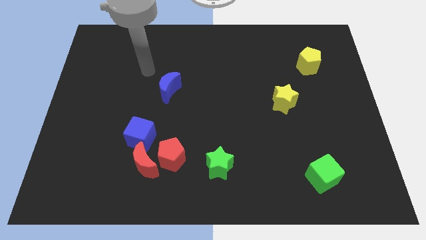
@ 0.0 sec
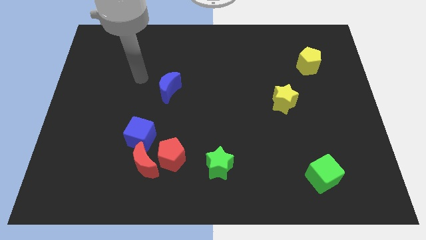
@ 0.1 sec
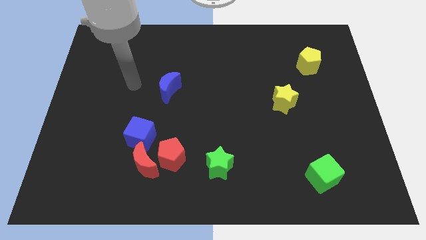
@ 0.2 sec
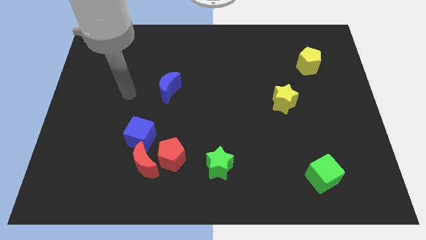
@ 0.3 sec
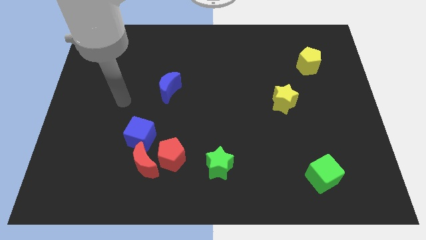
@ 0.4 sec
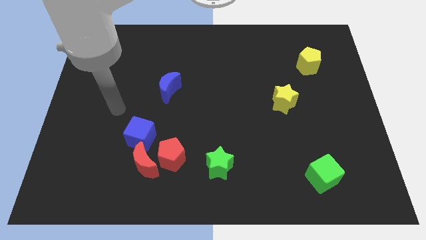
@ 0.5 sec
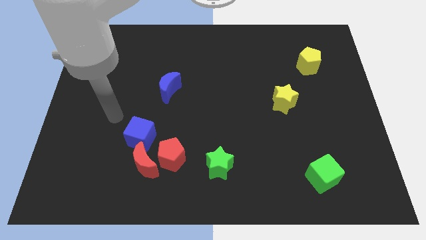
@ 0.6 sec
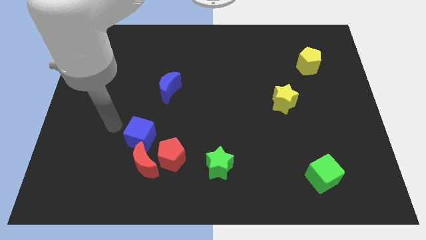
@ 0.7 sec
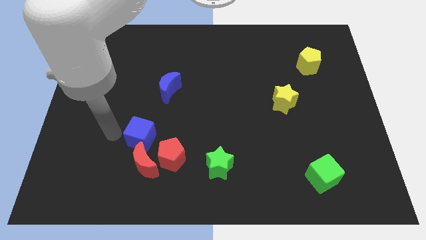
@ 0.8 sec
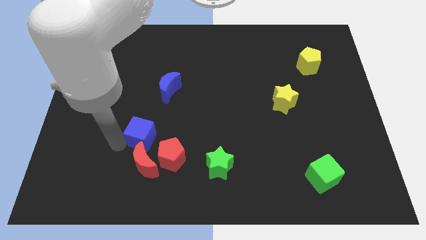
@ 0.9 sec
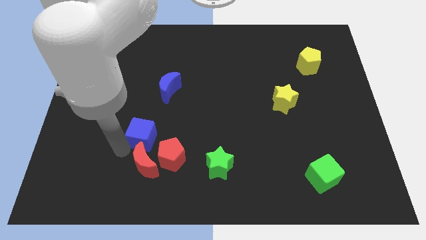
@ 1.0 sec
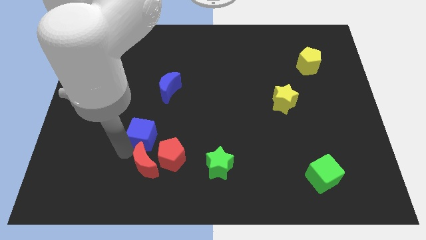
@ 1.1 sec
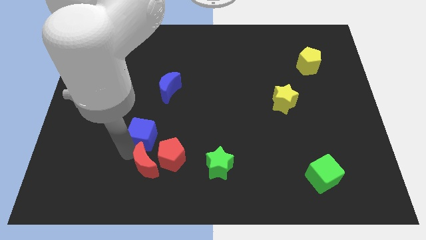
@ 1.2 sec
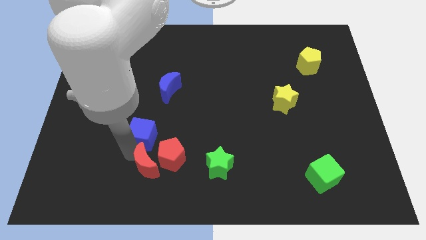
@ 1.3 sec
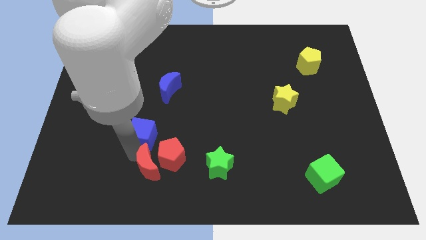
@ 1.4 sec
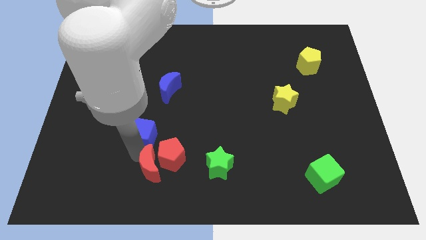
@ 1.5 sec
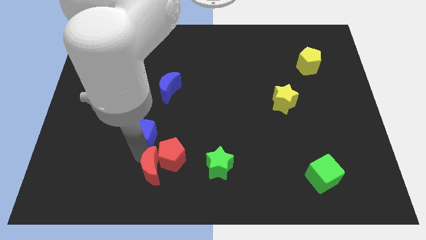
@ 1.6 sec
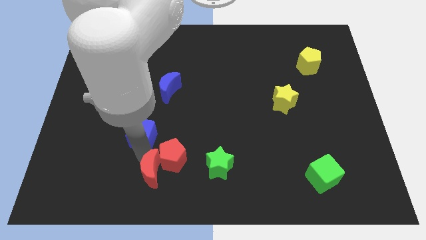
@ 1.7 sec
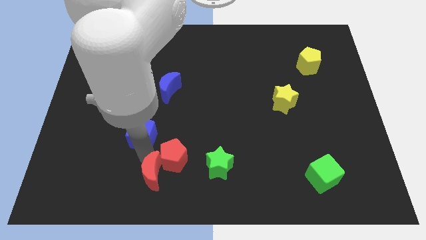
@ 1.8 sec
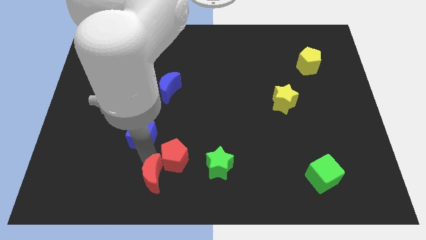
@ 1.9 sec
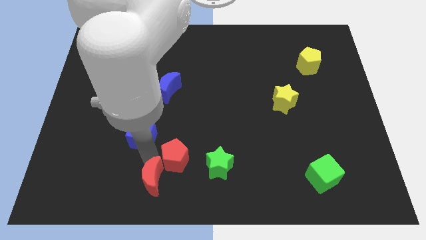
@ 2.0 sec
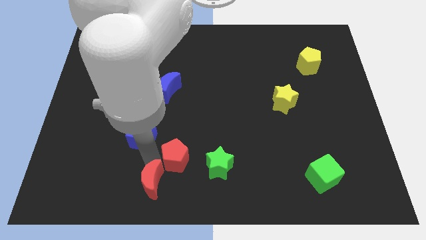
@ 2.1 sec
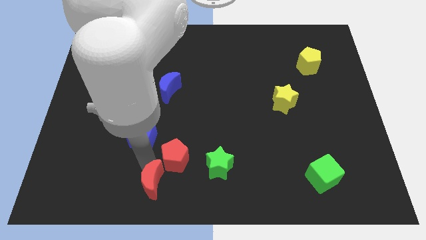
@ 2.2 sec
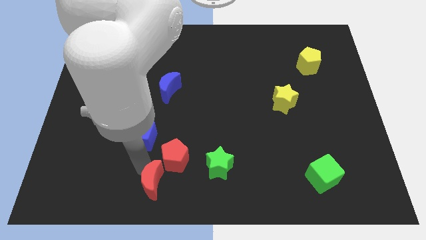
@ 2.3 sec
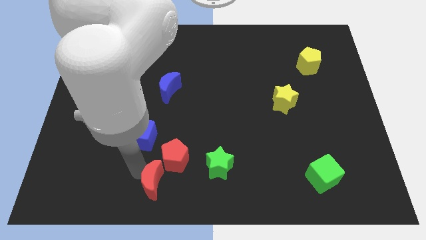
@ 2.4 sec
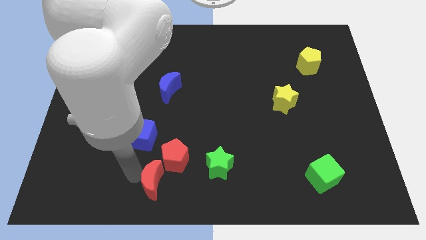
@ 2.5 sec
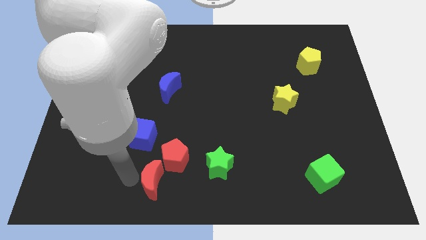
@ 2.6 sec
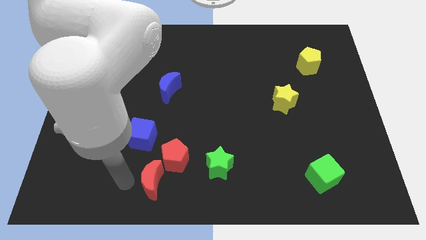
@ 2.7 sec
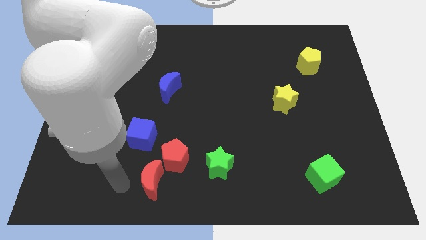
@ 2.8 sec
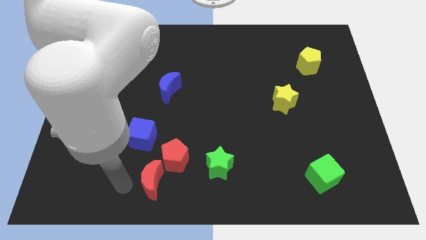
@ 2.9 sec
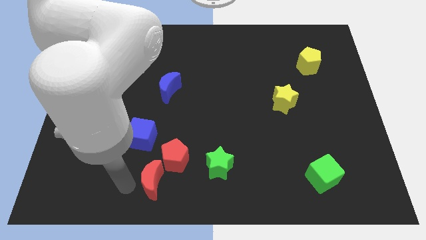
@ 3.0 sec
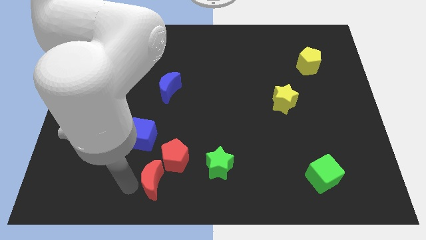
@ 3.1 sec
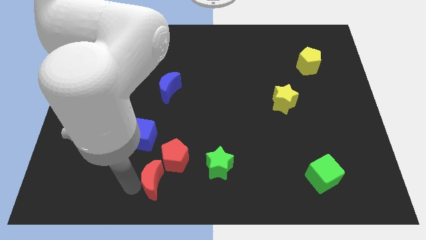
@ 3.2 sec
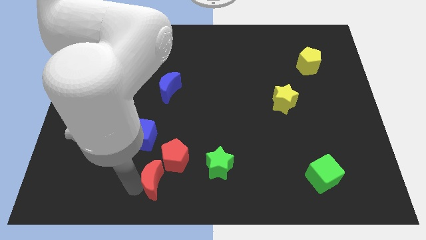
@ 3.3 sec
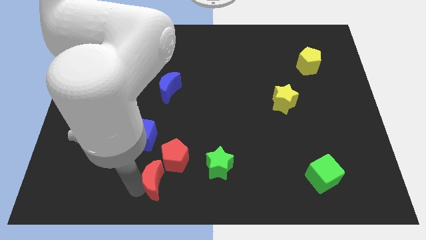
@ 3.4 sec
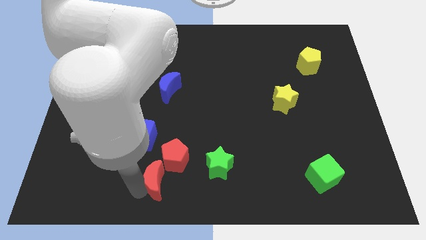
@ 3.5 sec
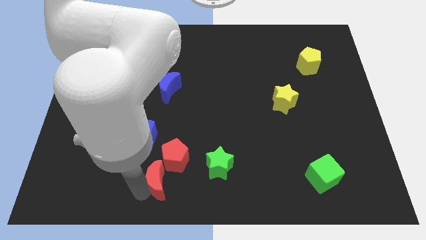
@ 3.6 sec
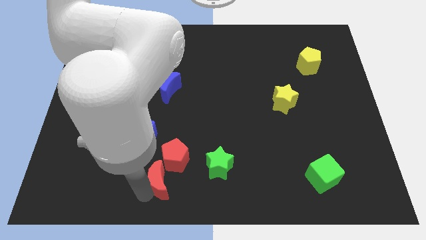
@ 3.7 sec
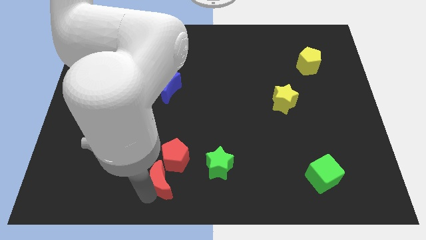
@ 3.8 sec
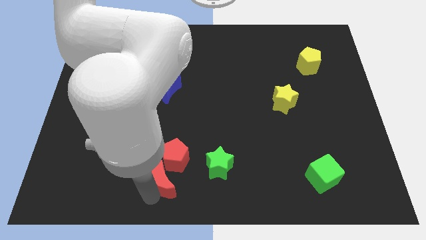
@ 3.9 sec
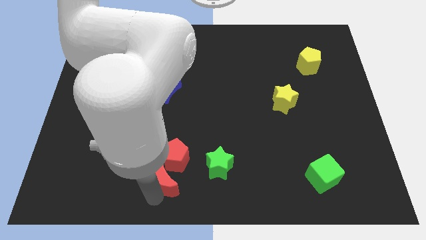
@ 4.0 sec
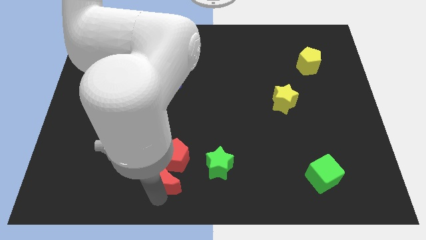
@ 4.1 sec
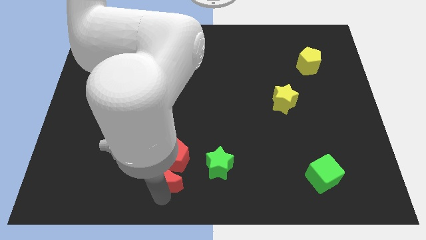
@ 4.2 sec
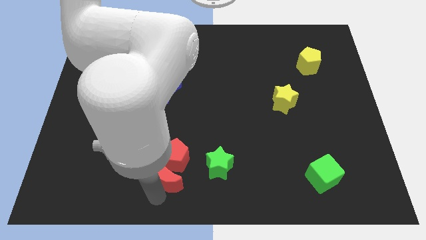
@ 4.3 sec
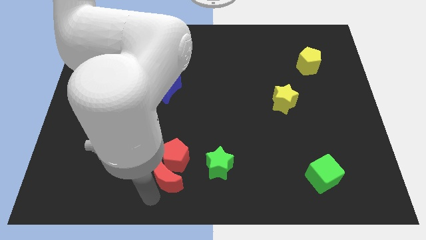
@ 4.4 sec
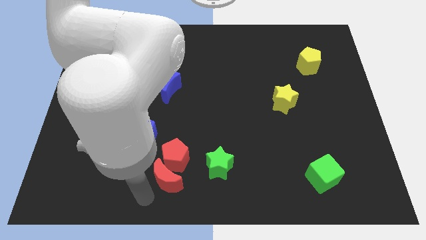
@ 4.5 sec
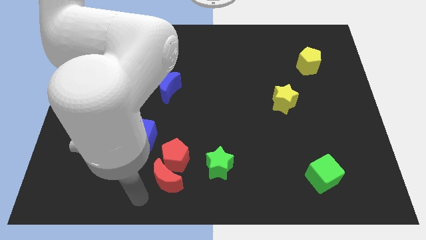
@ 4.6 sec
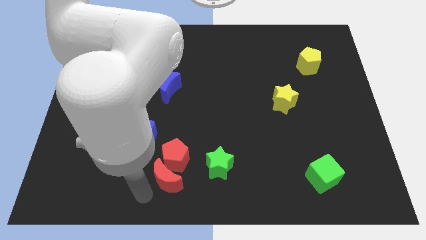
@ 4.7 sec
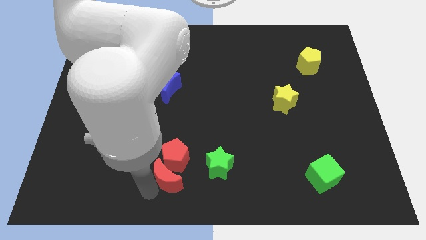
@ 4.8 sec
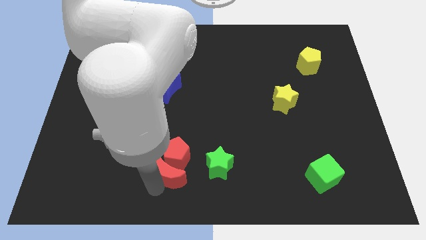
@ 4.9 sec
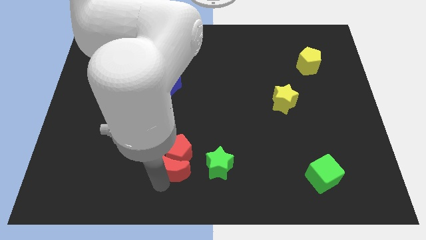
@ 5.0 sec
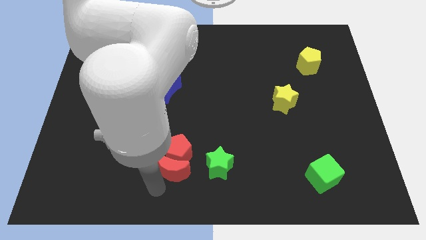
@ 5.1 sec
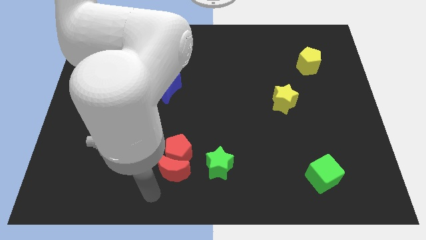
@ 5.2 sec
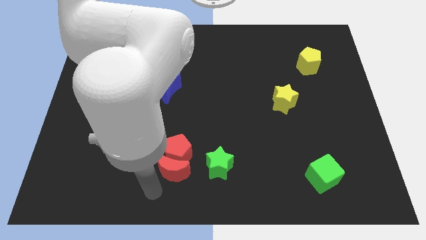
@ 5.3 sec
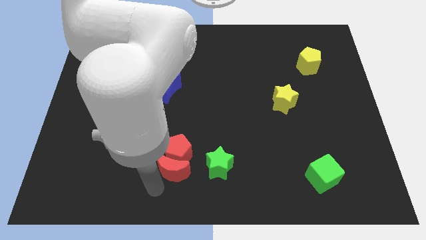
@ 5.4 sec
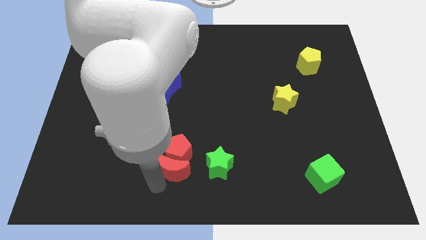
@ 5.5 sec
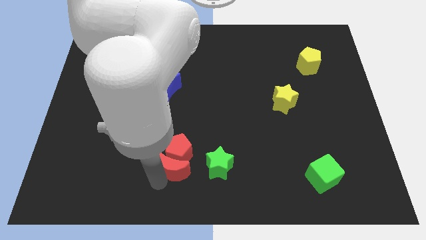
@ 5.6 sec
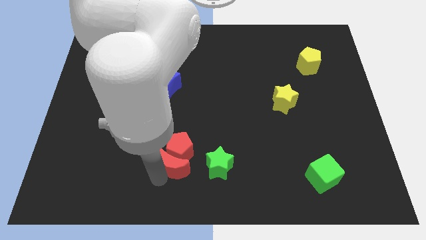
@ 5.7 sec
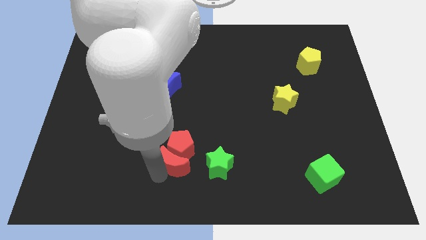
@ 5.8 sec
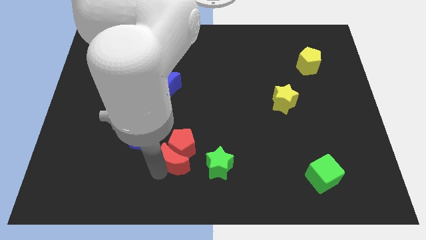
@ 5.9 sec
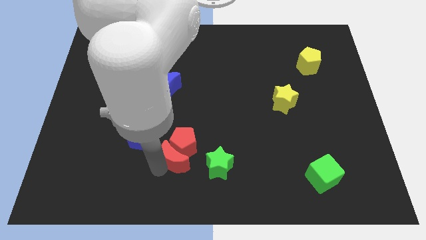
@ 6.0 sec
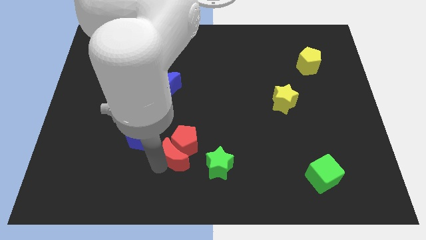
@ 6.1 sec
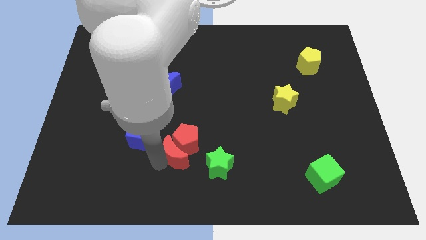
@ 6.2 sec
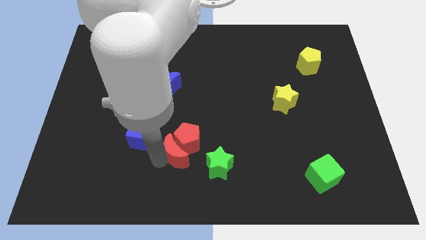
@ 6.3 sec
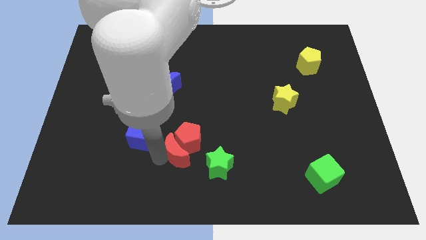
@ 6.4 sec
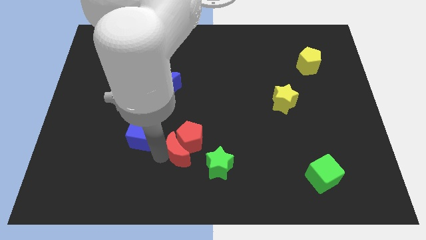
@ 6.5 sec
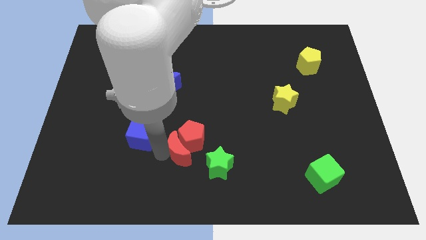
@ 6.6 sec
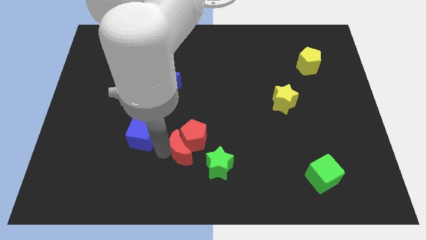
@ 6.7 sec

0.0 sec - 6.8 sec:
slightly slide the red moon upwards and right

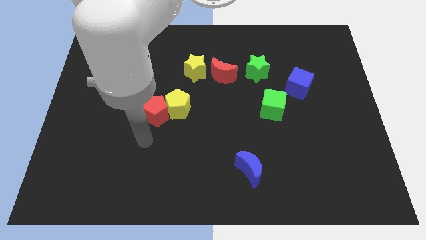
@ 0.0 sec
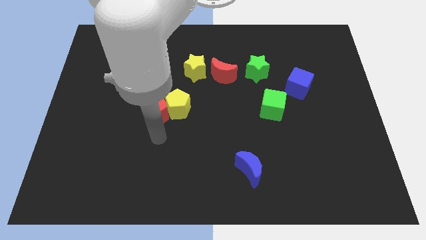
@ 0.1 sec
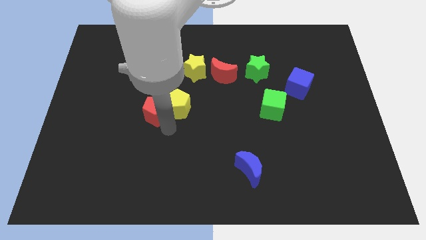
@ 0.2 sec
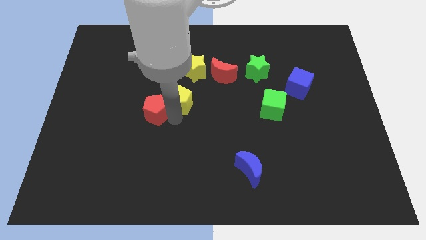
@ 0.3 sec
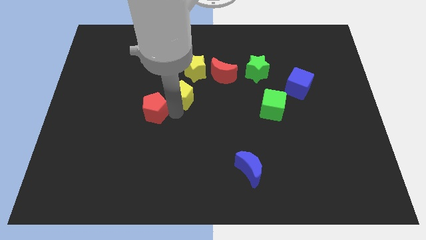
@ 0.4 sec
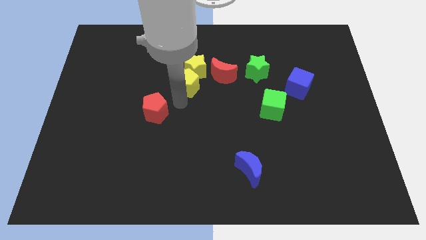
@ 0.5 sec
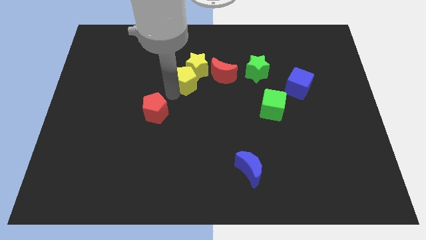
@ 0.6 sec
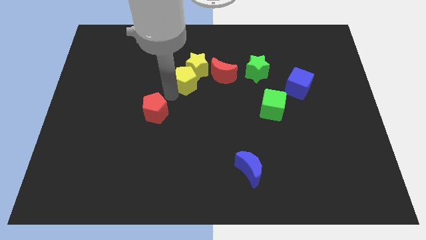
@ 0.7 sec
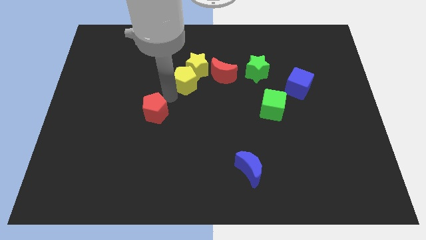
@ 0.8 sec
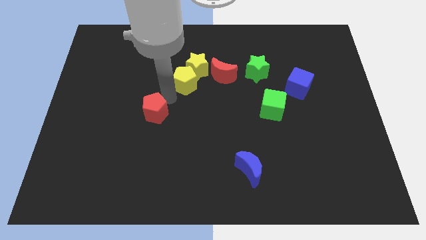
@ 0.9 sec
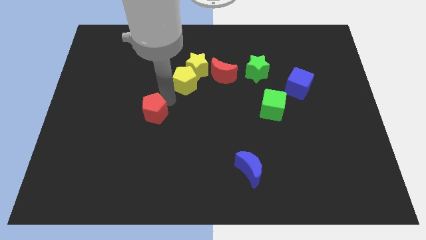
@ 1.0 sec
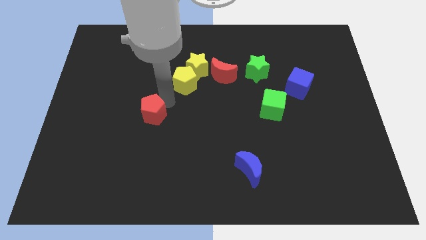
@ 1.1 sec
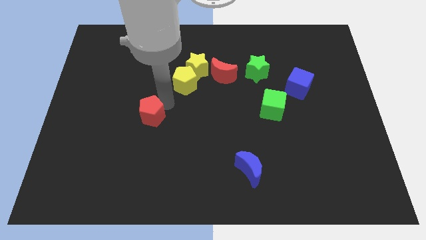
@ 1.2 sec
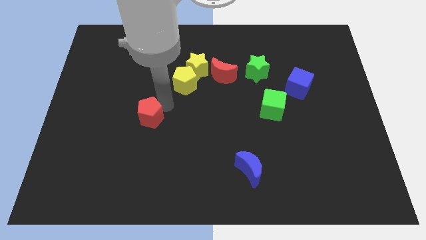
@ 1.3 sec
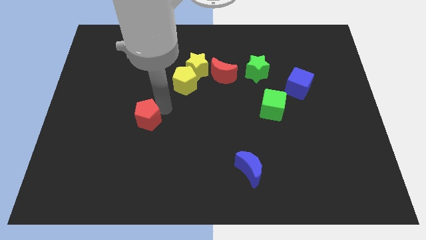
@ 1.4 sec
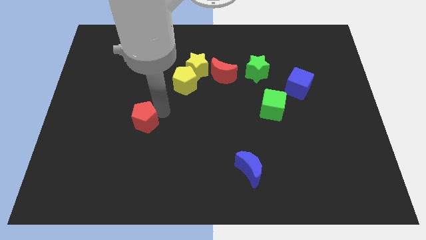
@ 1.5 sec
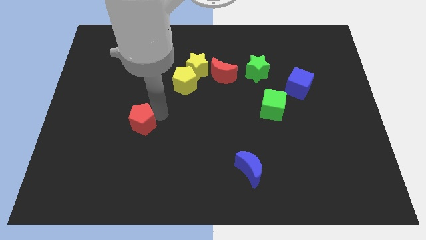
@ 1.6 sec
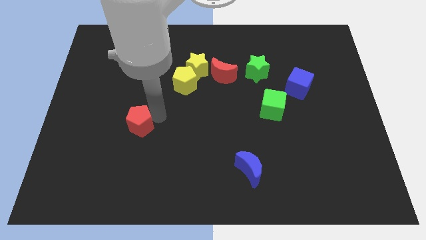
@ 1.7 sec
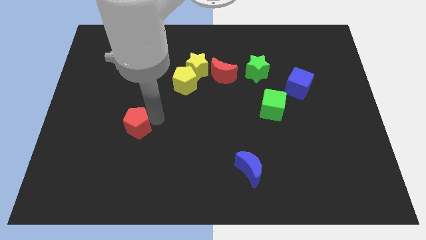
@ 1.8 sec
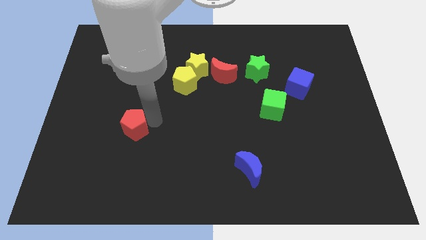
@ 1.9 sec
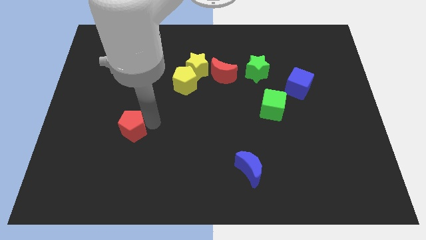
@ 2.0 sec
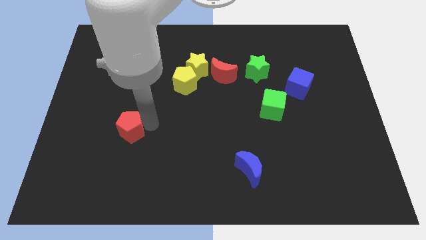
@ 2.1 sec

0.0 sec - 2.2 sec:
slightly slide the red pentagon downwards and to the left diagonally
